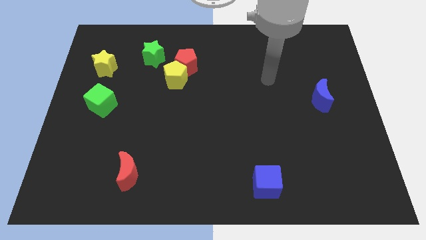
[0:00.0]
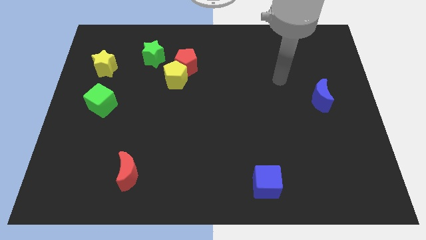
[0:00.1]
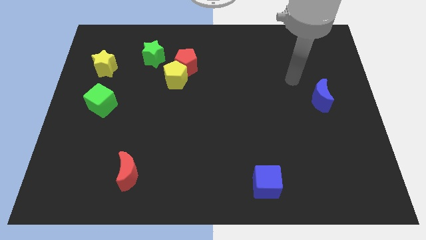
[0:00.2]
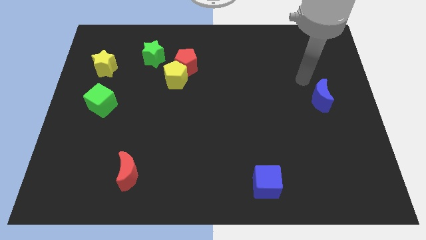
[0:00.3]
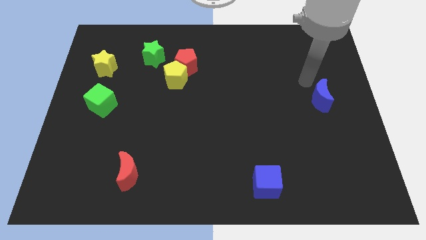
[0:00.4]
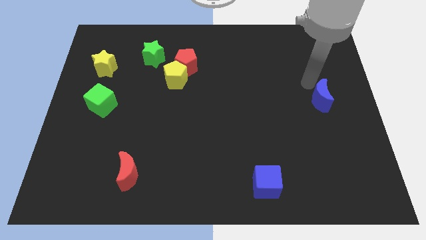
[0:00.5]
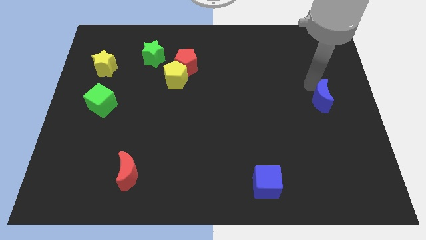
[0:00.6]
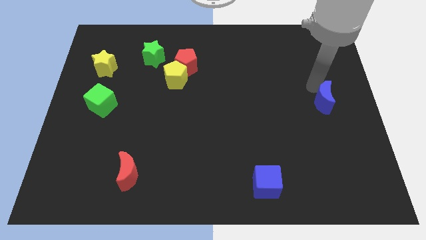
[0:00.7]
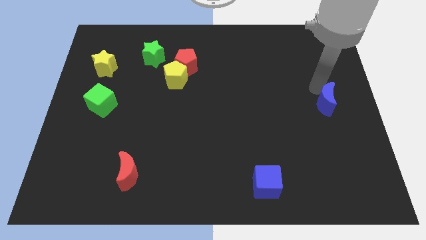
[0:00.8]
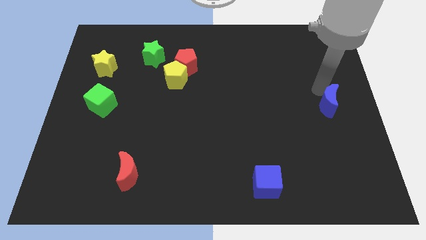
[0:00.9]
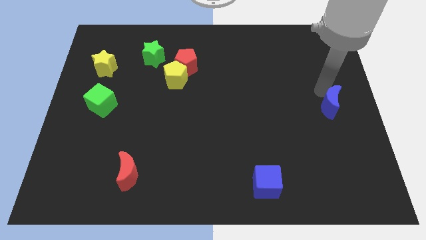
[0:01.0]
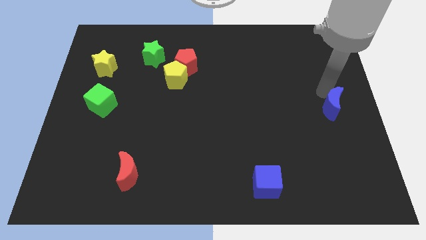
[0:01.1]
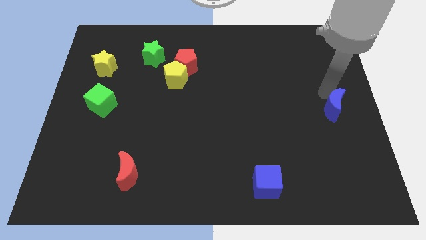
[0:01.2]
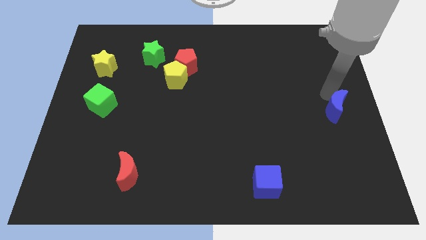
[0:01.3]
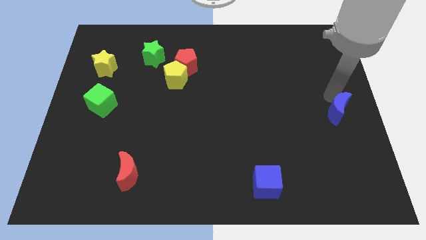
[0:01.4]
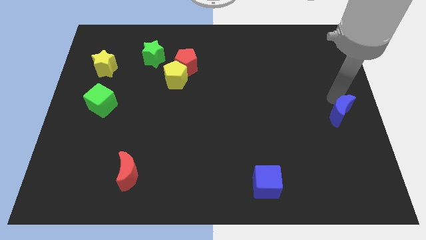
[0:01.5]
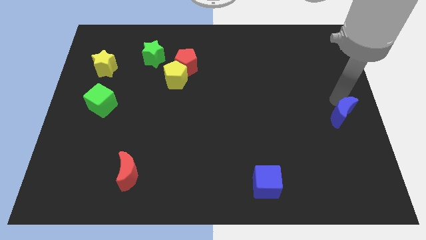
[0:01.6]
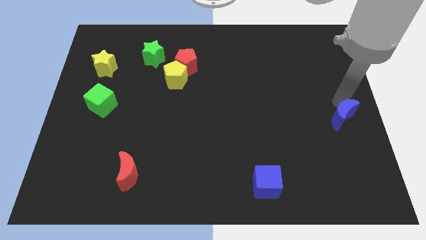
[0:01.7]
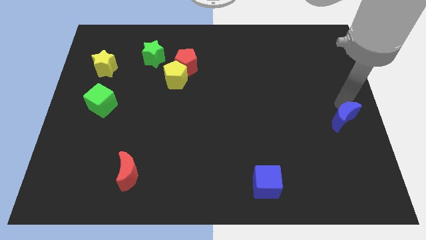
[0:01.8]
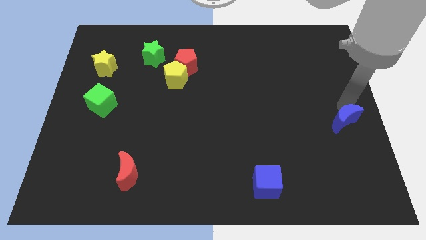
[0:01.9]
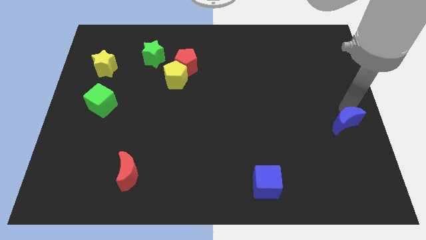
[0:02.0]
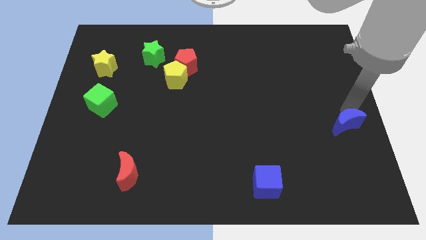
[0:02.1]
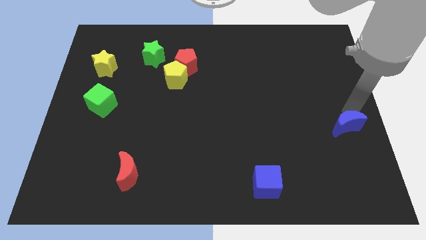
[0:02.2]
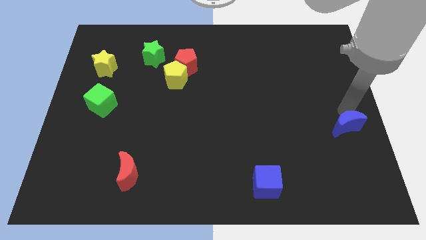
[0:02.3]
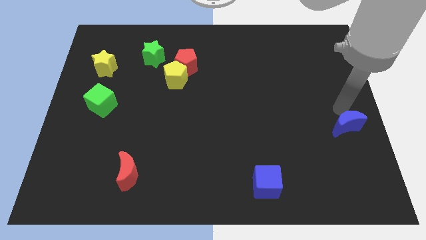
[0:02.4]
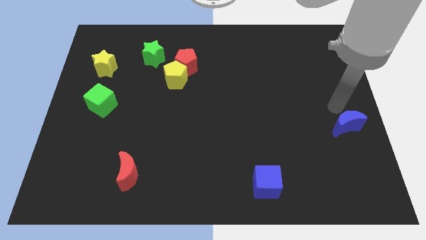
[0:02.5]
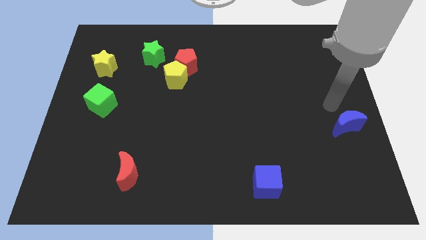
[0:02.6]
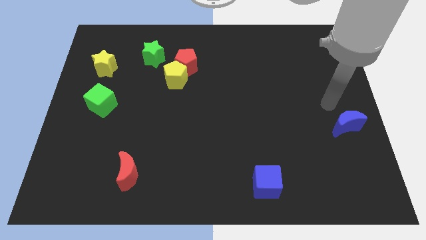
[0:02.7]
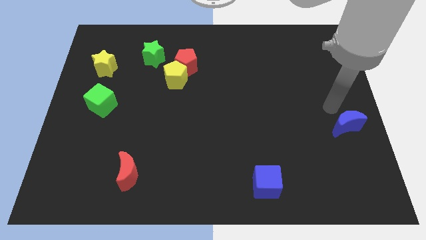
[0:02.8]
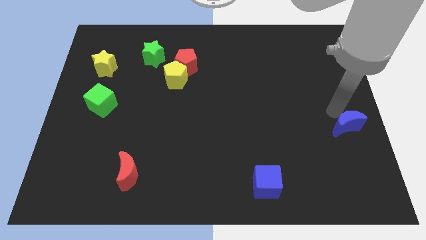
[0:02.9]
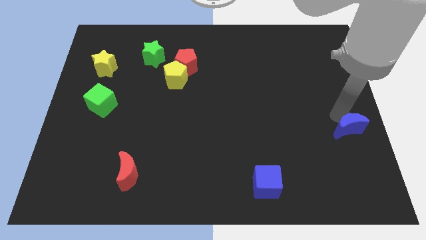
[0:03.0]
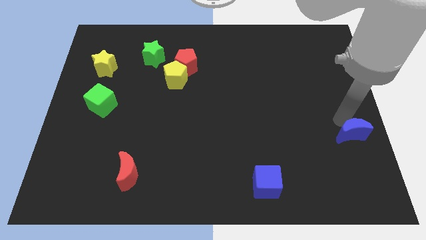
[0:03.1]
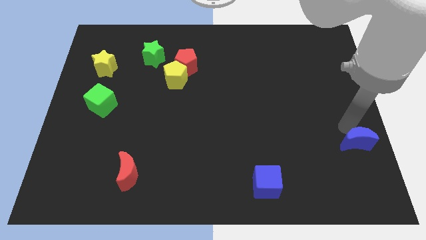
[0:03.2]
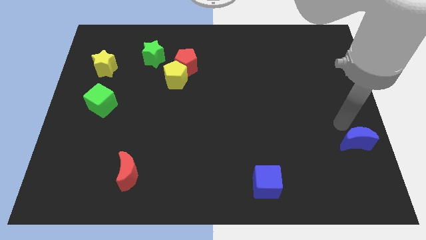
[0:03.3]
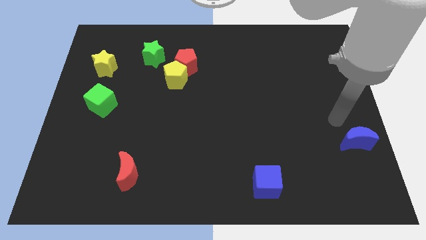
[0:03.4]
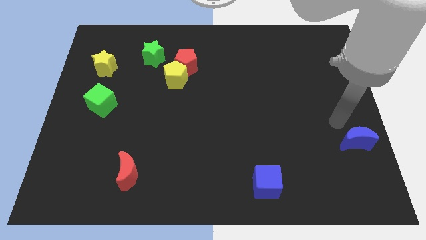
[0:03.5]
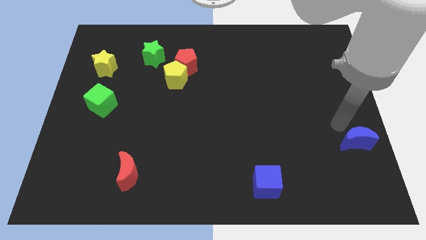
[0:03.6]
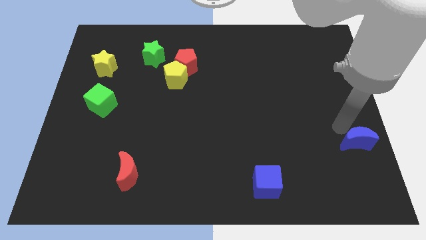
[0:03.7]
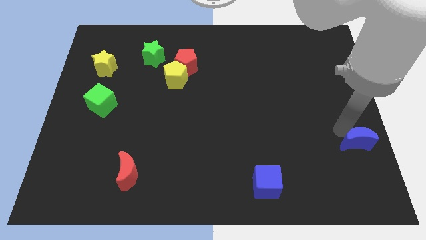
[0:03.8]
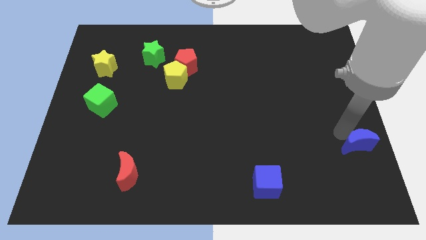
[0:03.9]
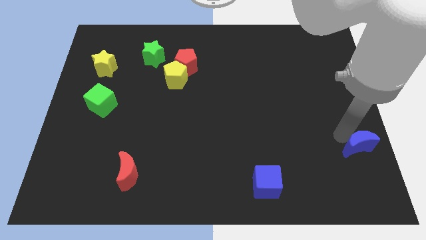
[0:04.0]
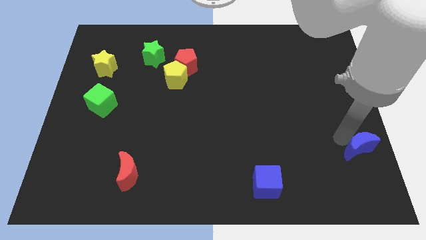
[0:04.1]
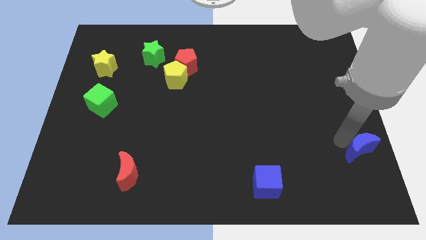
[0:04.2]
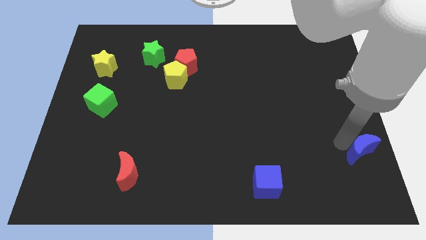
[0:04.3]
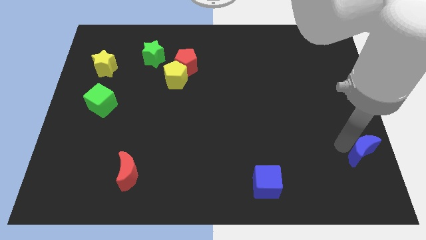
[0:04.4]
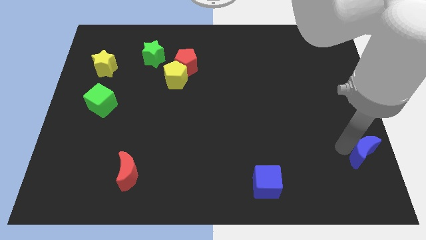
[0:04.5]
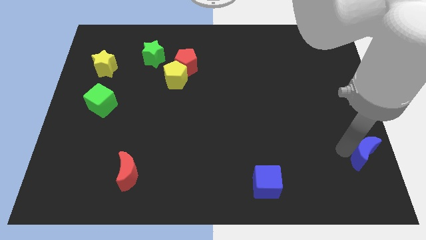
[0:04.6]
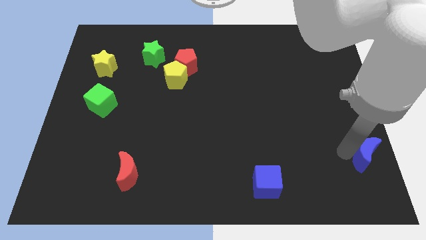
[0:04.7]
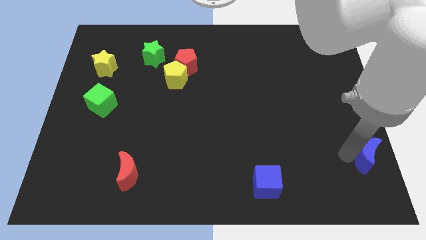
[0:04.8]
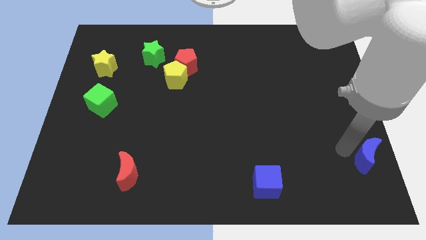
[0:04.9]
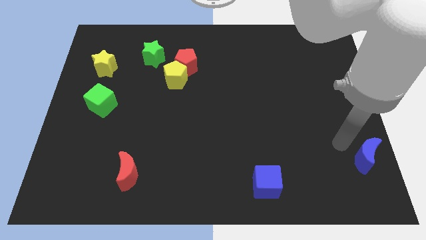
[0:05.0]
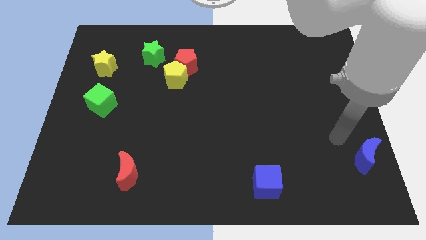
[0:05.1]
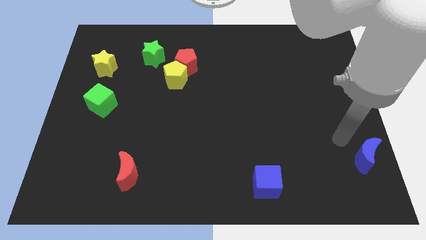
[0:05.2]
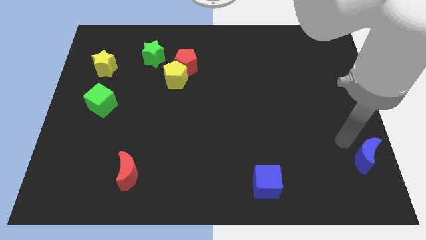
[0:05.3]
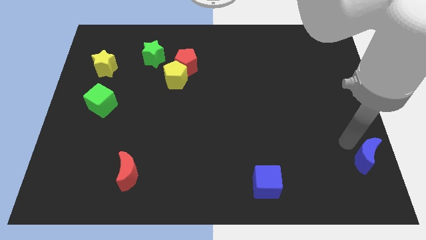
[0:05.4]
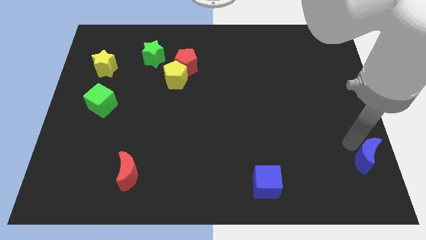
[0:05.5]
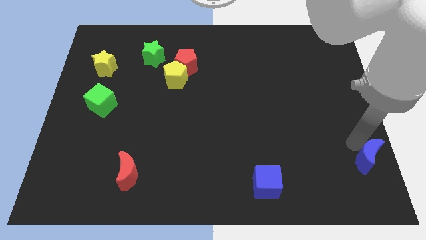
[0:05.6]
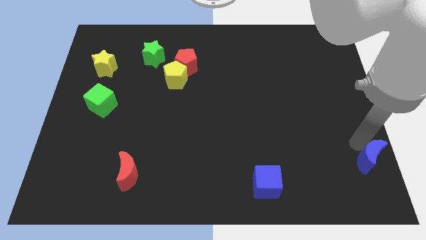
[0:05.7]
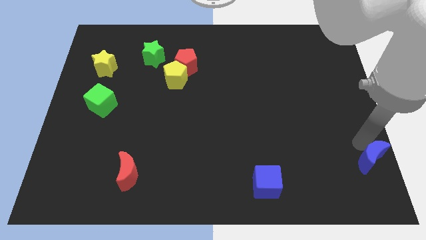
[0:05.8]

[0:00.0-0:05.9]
put the blue moon to the lower right corner
